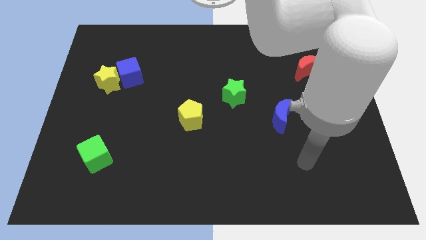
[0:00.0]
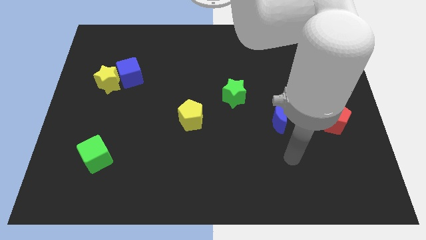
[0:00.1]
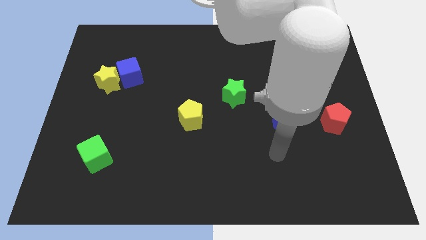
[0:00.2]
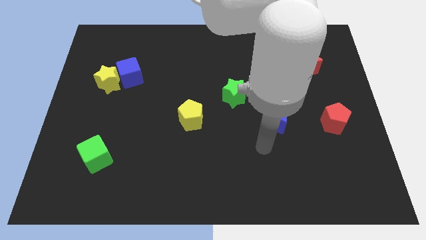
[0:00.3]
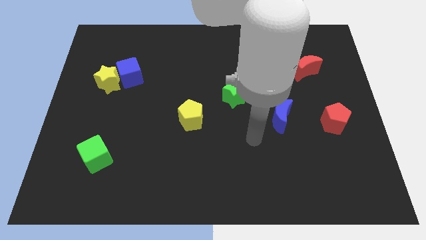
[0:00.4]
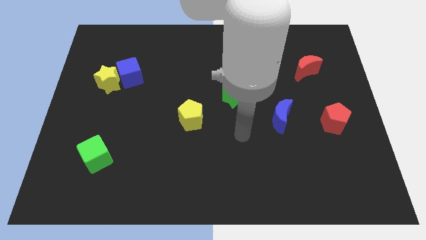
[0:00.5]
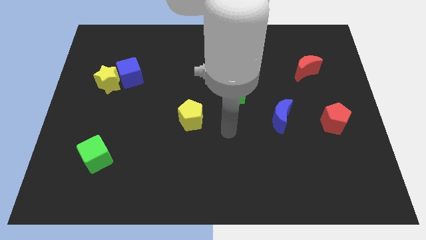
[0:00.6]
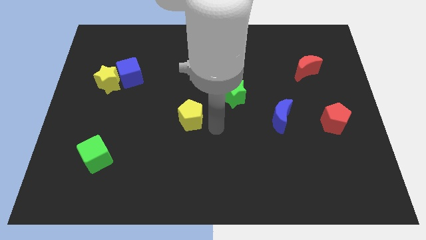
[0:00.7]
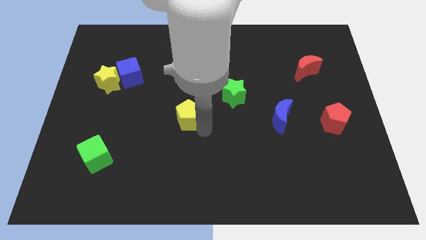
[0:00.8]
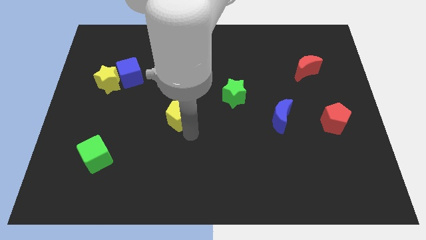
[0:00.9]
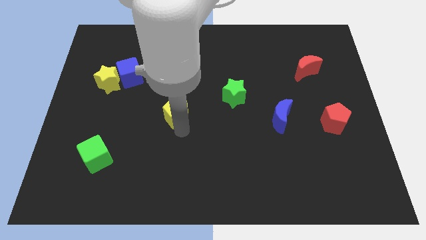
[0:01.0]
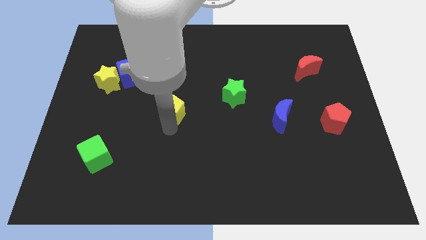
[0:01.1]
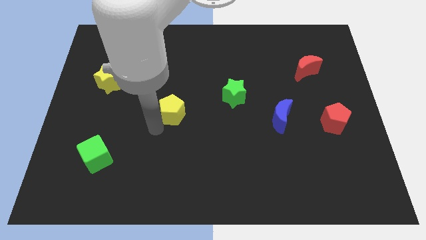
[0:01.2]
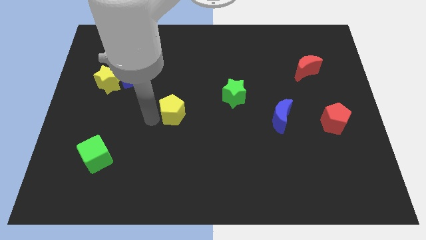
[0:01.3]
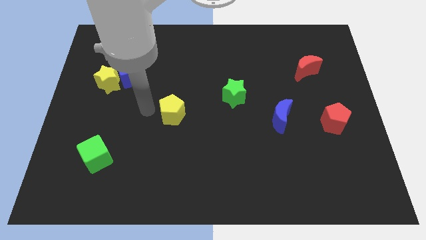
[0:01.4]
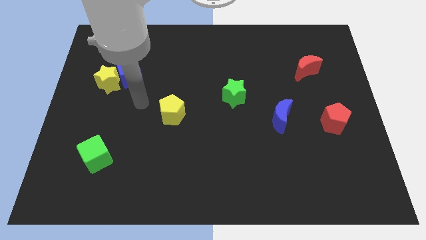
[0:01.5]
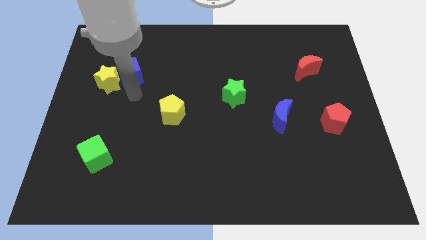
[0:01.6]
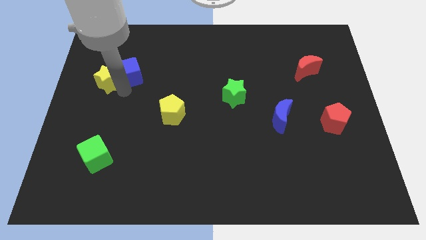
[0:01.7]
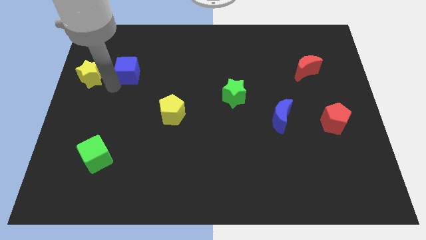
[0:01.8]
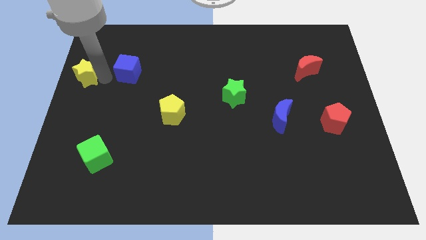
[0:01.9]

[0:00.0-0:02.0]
move the blue cube away from the yellow star

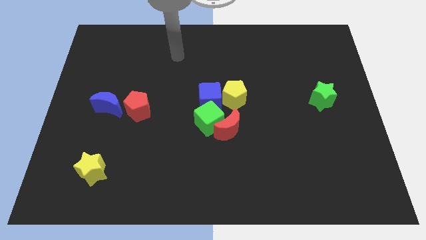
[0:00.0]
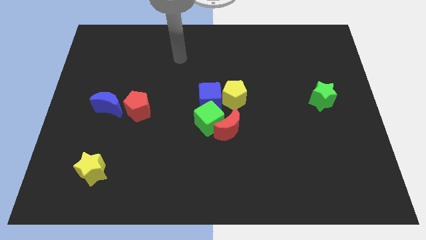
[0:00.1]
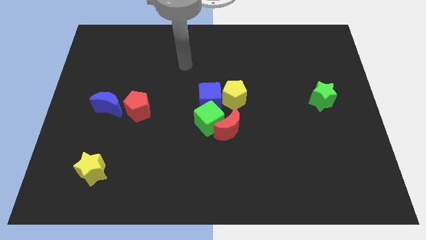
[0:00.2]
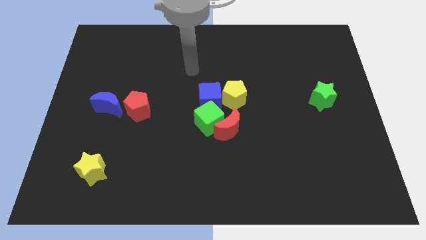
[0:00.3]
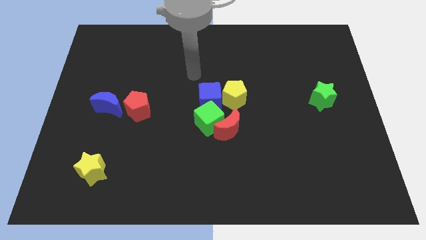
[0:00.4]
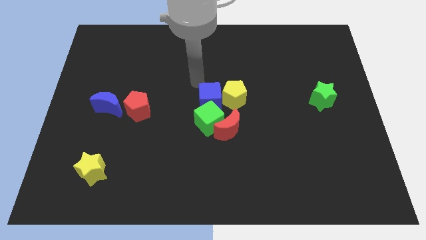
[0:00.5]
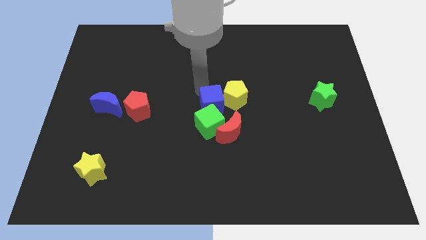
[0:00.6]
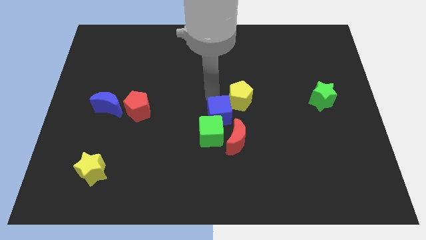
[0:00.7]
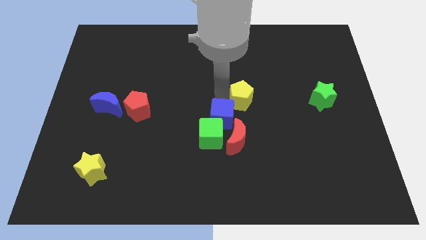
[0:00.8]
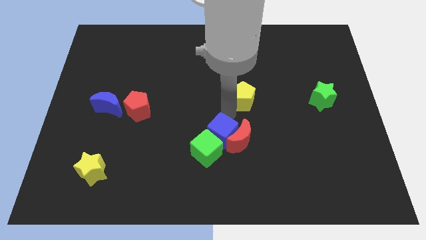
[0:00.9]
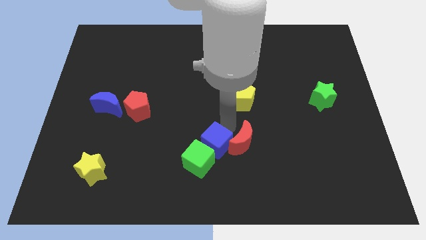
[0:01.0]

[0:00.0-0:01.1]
pull the green cube apart from the red moon, blue cube, and yellow pentagon

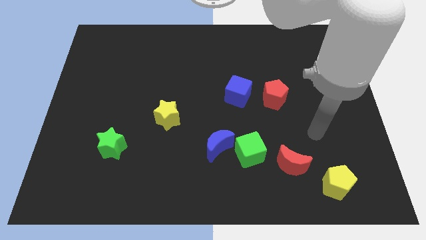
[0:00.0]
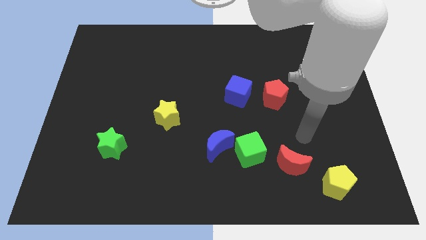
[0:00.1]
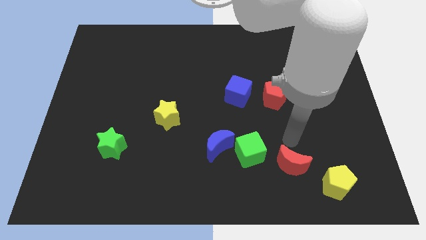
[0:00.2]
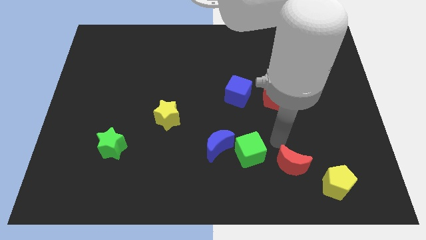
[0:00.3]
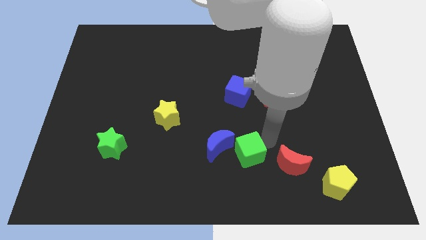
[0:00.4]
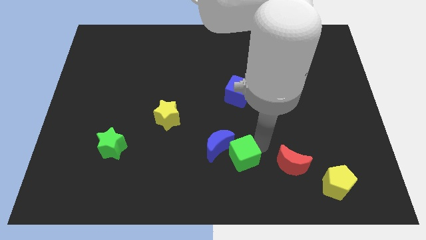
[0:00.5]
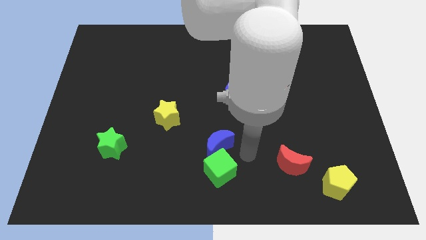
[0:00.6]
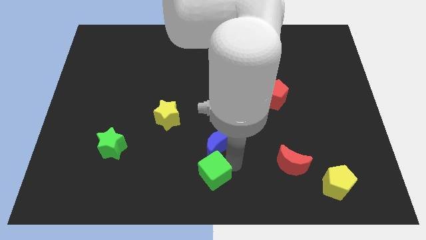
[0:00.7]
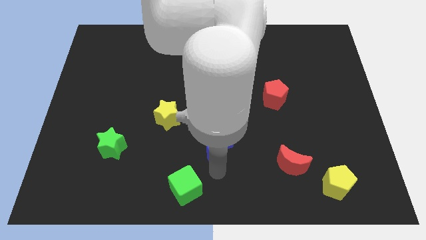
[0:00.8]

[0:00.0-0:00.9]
separate the blue moon from the green cube

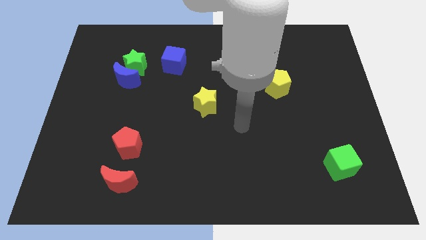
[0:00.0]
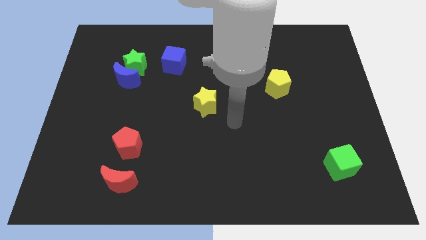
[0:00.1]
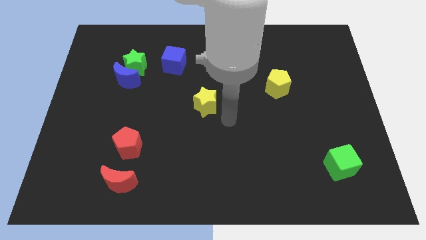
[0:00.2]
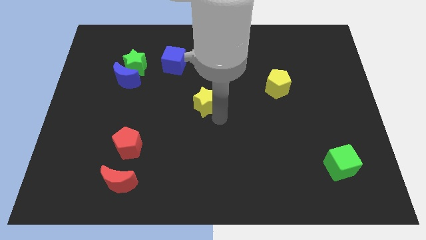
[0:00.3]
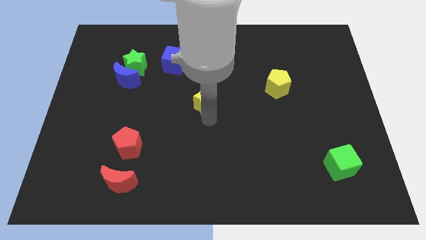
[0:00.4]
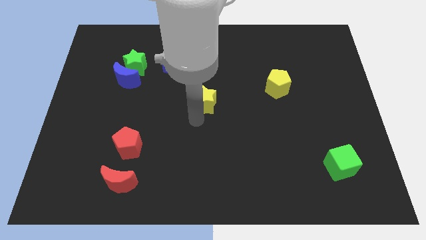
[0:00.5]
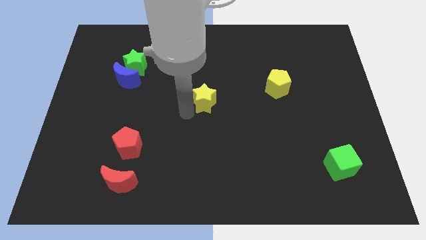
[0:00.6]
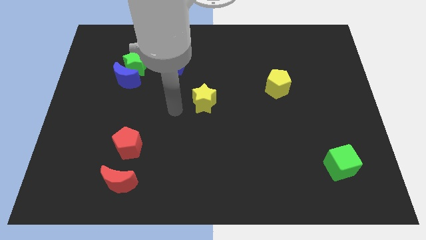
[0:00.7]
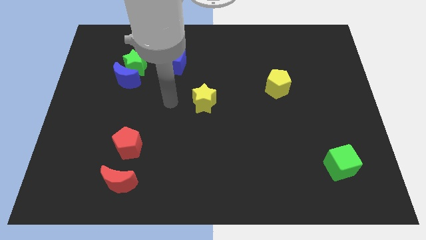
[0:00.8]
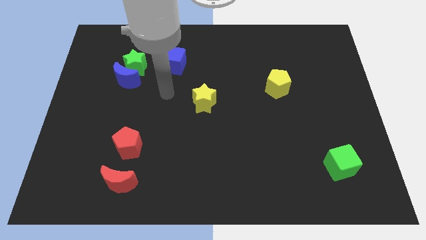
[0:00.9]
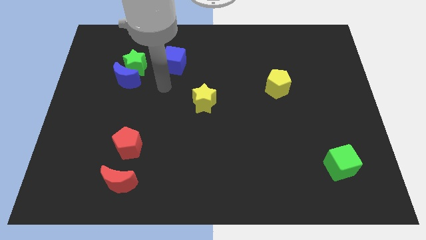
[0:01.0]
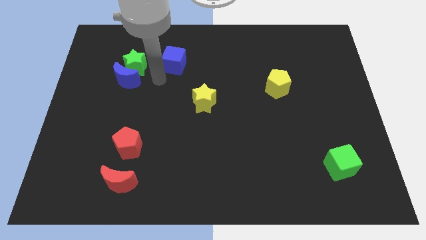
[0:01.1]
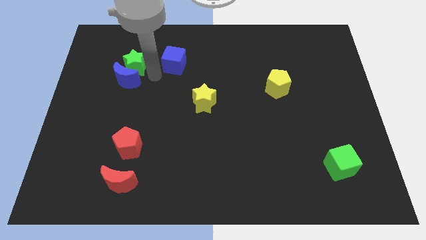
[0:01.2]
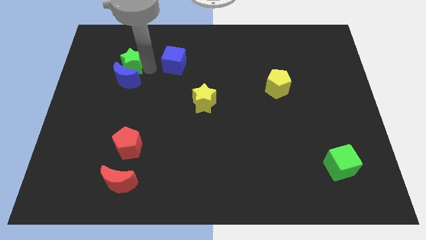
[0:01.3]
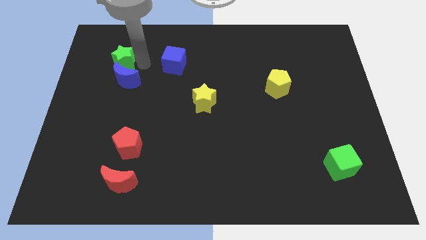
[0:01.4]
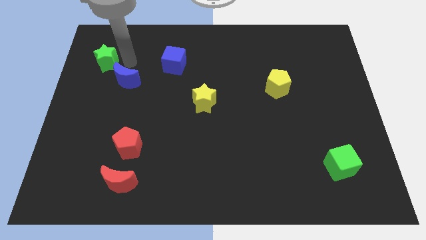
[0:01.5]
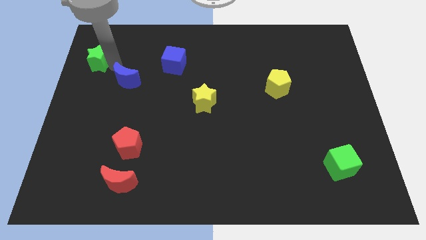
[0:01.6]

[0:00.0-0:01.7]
pull the blue moon apart from the green star

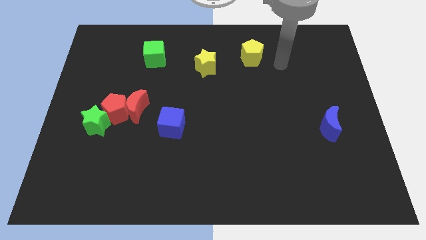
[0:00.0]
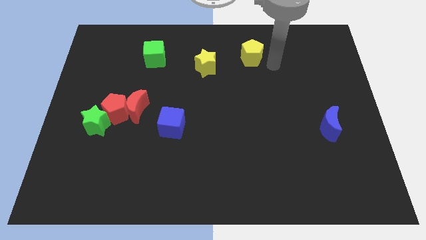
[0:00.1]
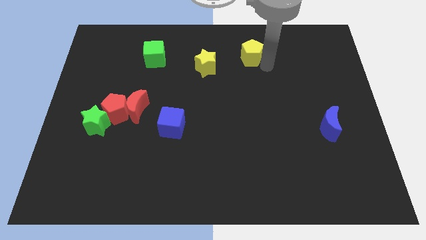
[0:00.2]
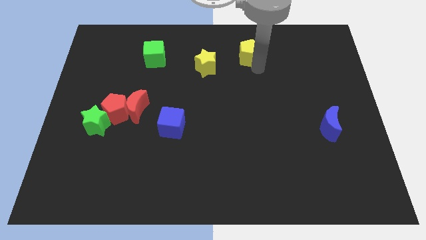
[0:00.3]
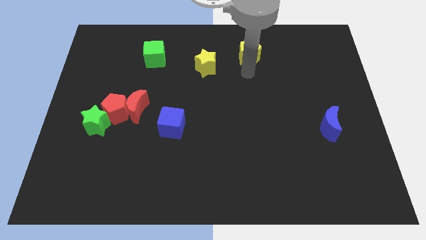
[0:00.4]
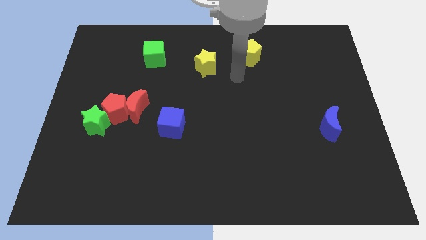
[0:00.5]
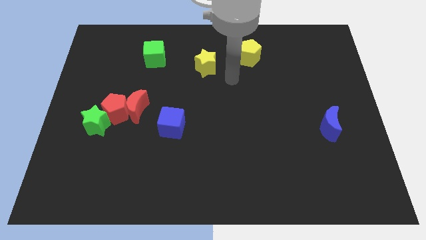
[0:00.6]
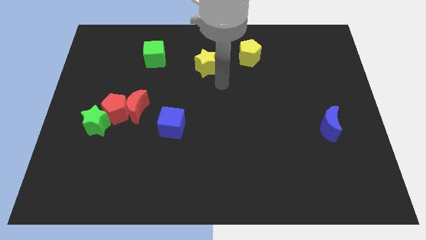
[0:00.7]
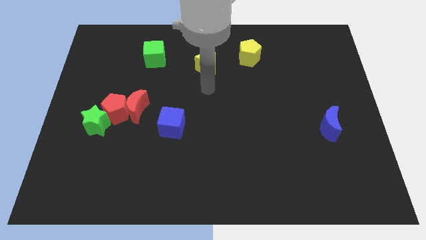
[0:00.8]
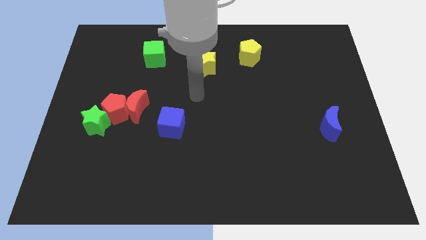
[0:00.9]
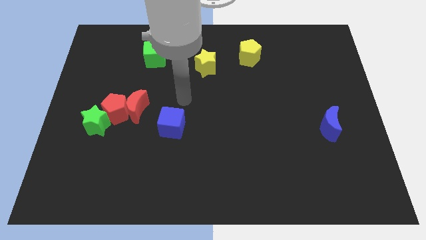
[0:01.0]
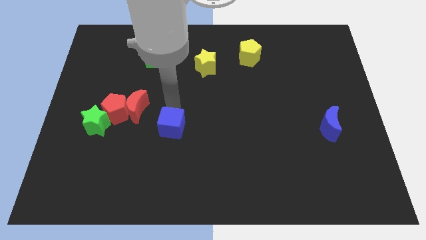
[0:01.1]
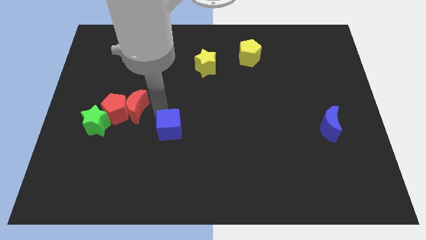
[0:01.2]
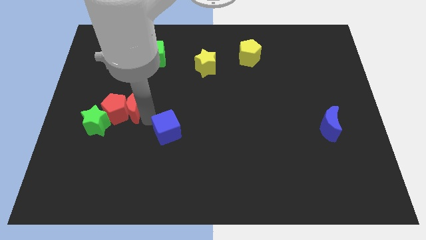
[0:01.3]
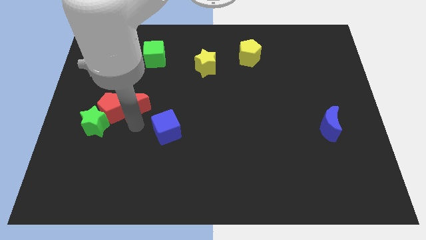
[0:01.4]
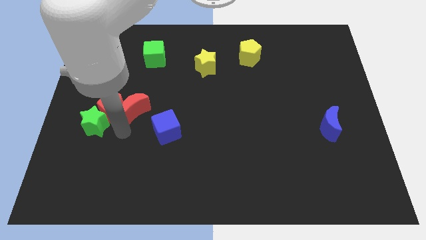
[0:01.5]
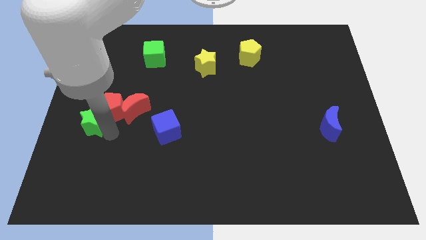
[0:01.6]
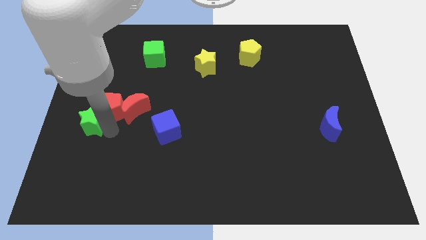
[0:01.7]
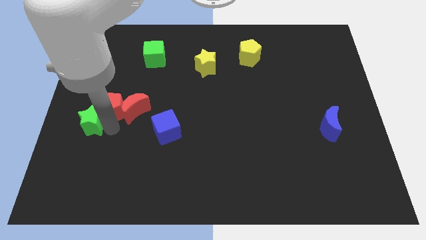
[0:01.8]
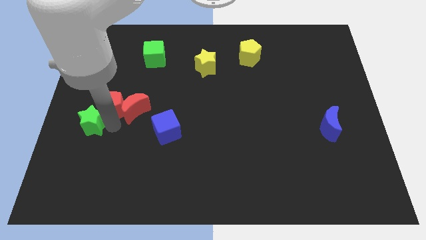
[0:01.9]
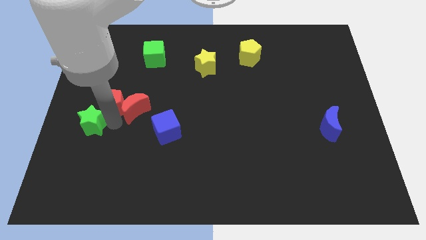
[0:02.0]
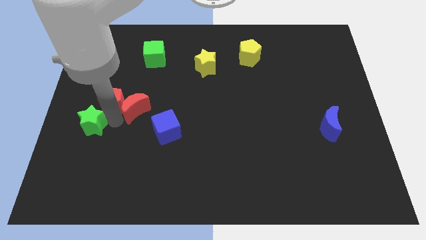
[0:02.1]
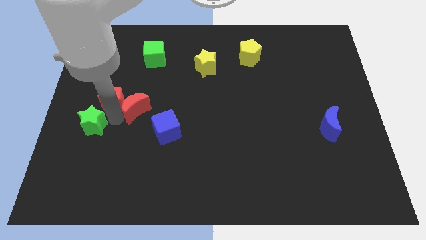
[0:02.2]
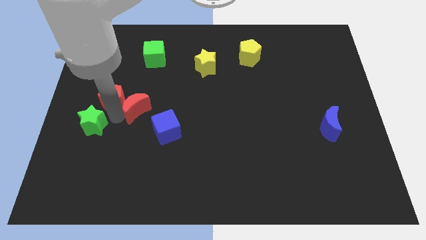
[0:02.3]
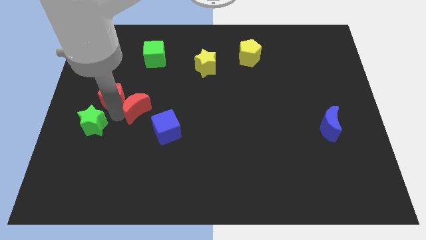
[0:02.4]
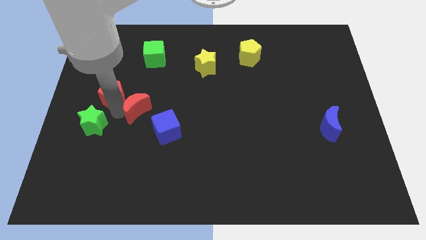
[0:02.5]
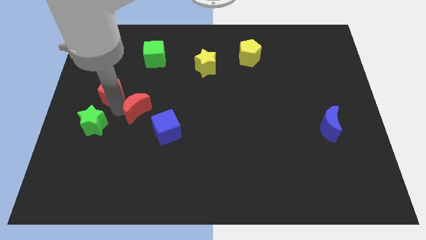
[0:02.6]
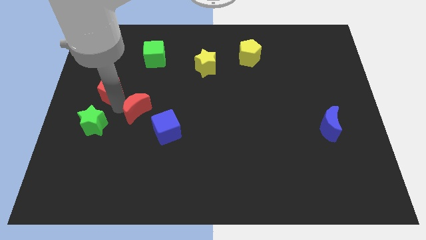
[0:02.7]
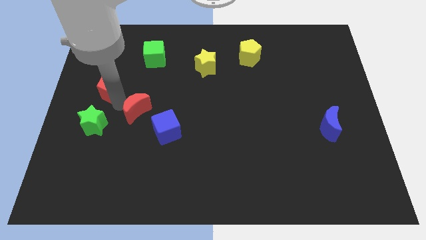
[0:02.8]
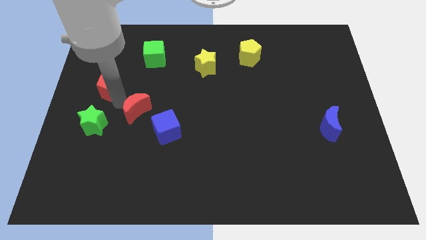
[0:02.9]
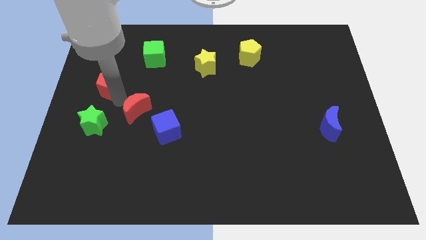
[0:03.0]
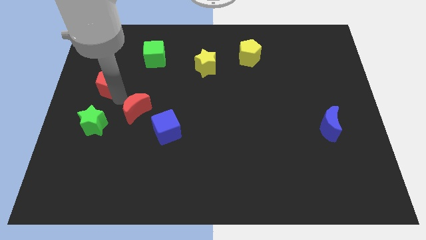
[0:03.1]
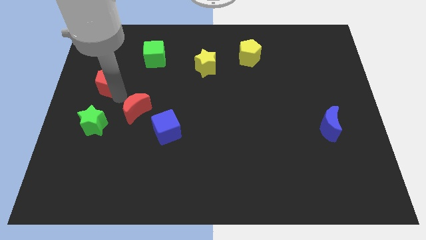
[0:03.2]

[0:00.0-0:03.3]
pull the red pentagon apart from the red moon and green star

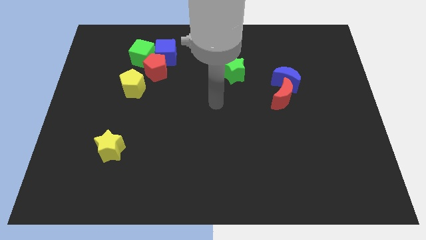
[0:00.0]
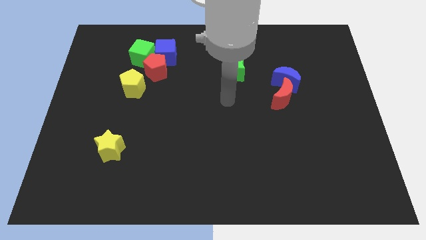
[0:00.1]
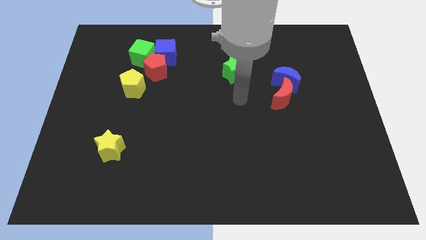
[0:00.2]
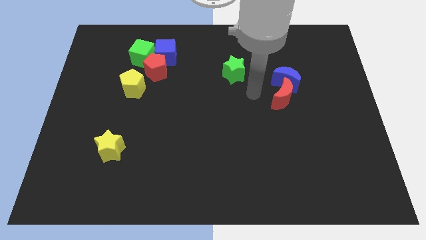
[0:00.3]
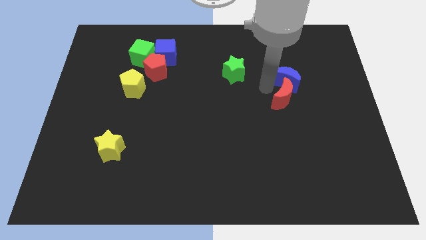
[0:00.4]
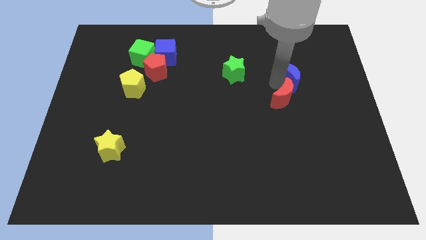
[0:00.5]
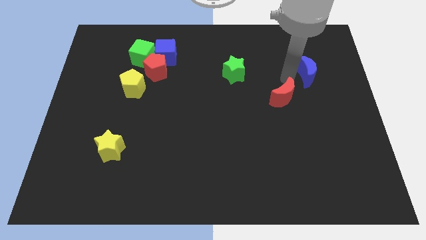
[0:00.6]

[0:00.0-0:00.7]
move the red moon away from the blue moon
